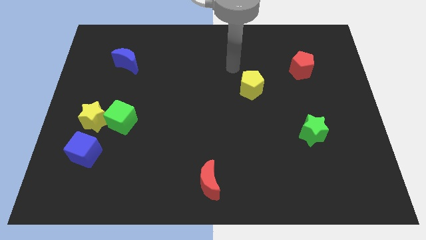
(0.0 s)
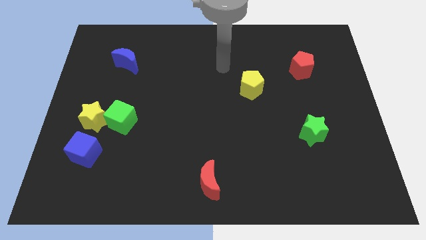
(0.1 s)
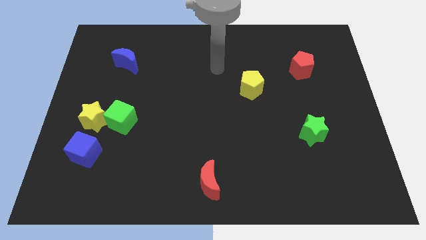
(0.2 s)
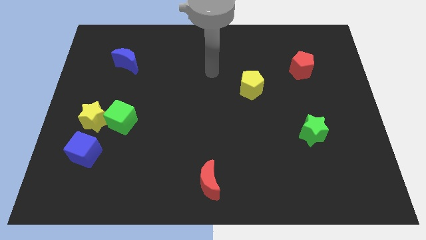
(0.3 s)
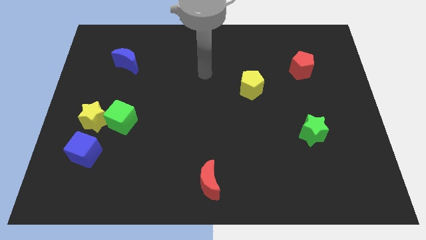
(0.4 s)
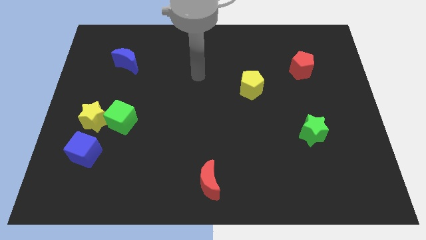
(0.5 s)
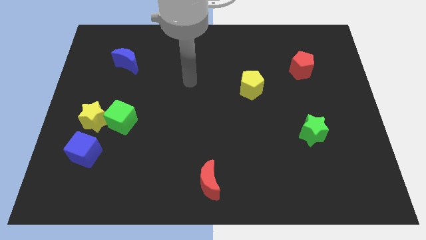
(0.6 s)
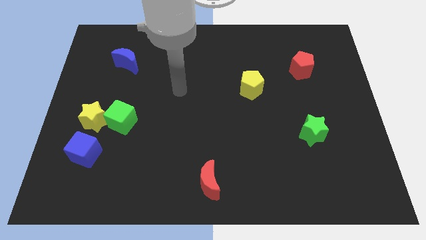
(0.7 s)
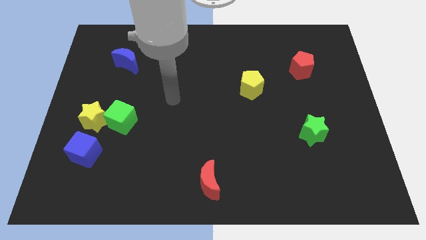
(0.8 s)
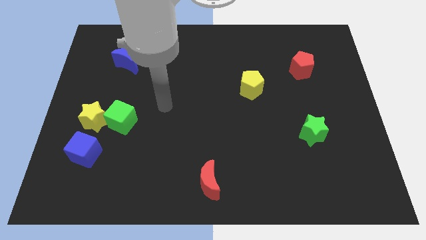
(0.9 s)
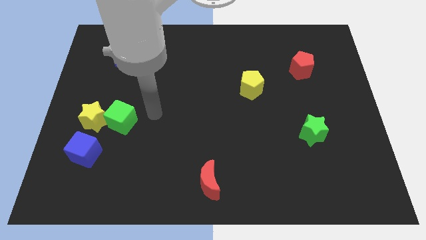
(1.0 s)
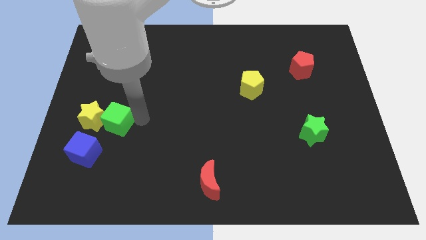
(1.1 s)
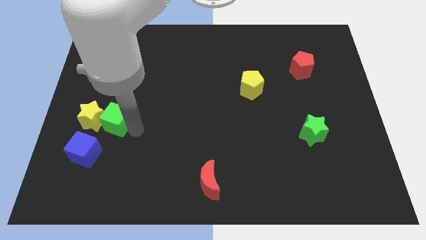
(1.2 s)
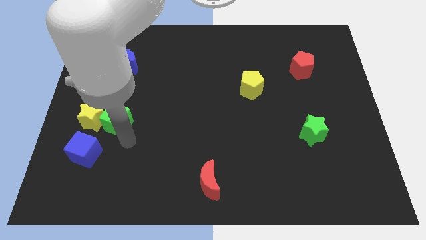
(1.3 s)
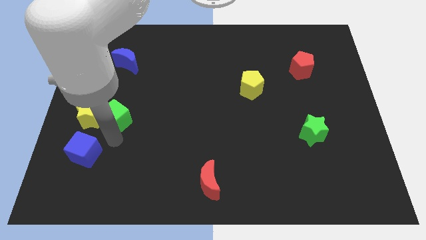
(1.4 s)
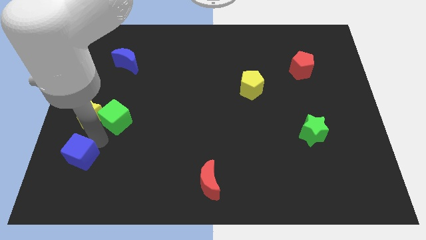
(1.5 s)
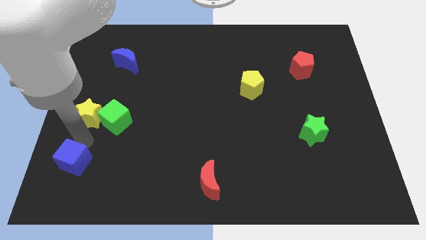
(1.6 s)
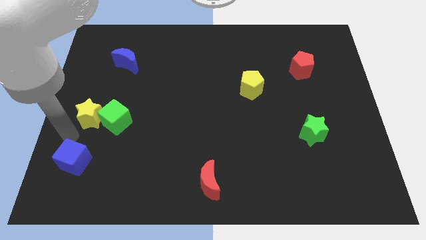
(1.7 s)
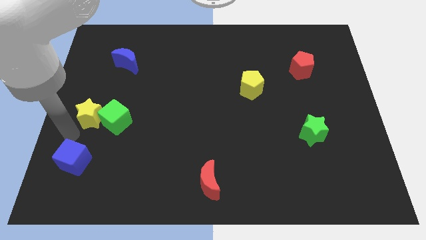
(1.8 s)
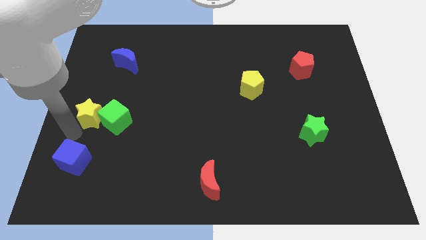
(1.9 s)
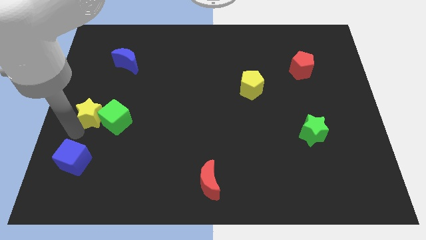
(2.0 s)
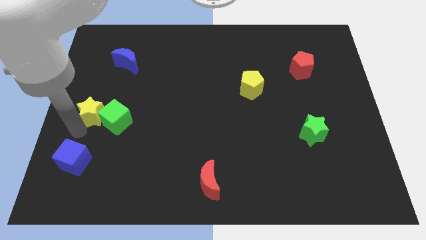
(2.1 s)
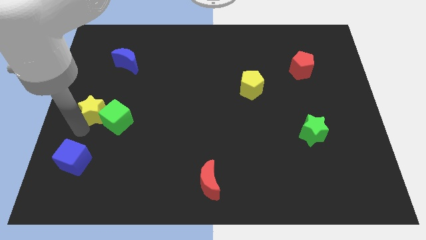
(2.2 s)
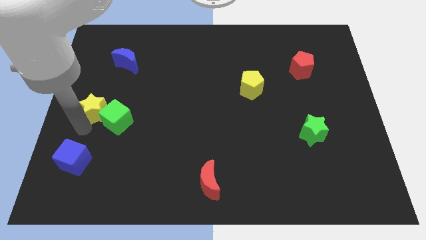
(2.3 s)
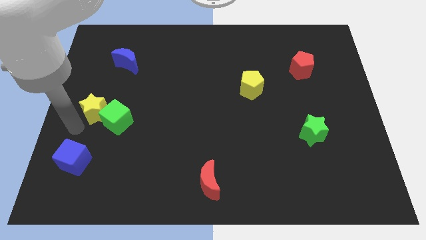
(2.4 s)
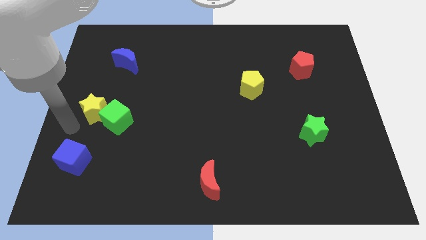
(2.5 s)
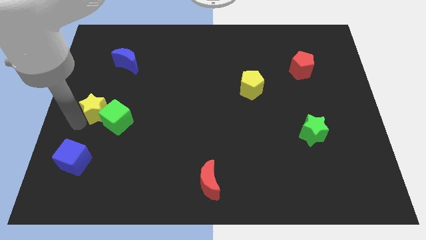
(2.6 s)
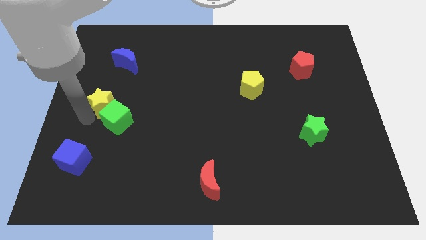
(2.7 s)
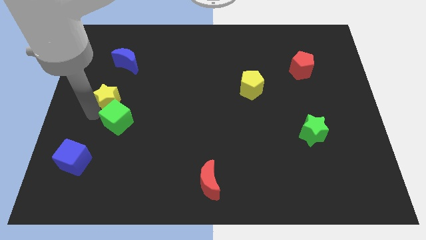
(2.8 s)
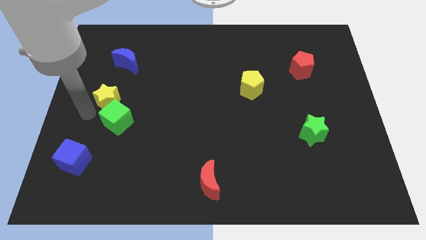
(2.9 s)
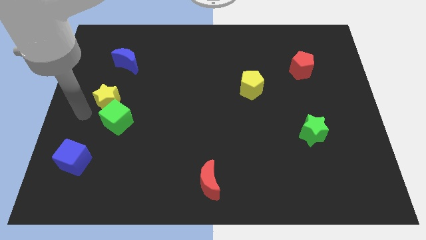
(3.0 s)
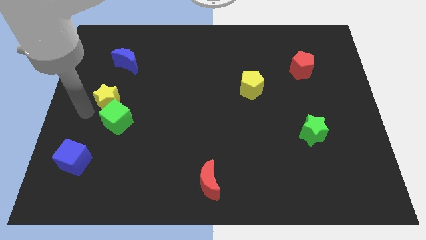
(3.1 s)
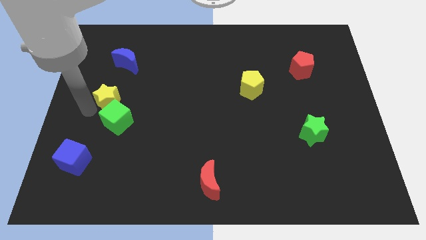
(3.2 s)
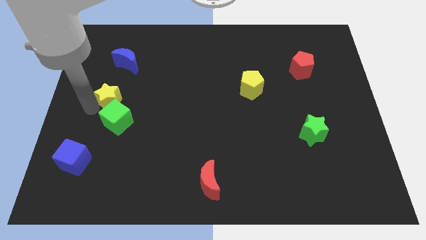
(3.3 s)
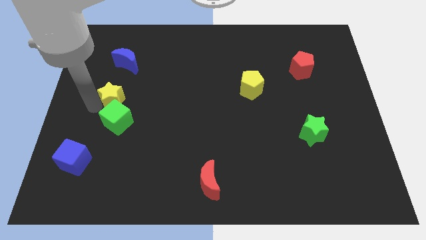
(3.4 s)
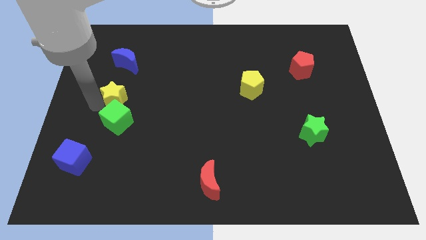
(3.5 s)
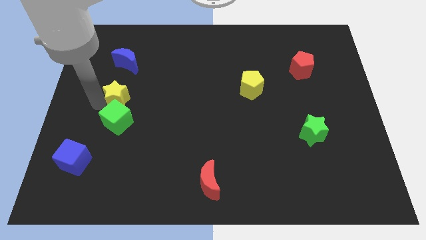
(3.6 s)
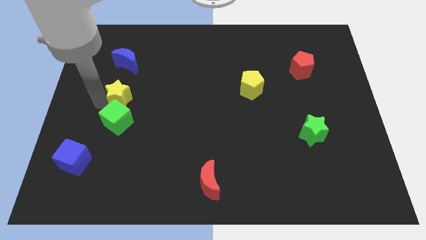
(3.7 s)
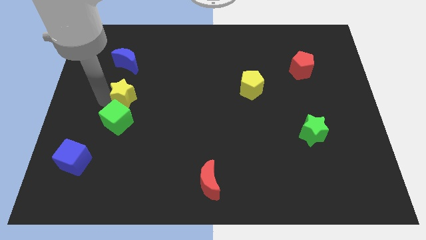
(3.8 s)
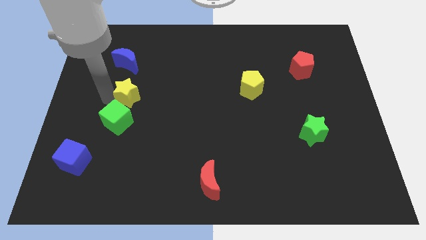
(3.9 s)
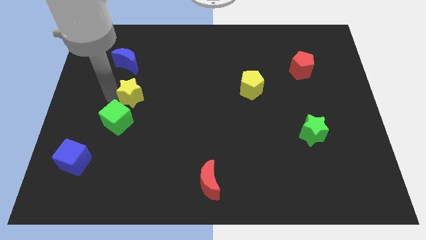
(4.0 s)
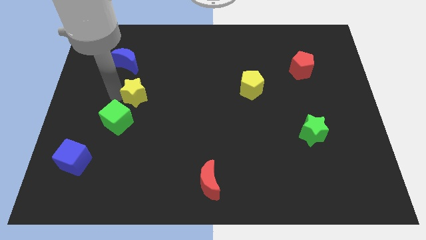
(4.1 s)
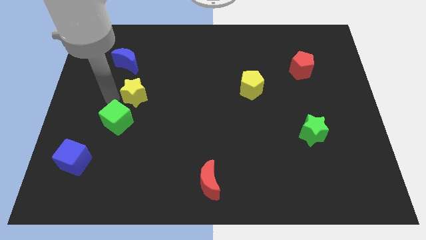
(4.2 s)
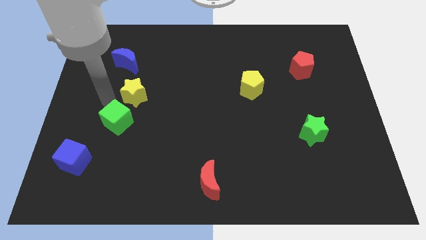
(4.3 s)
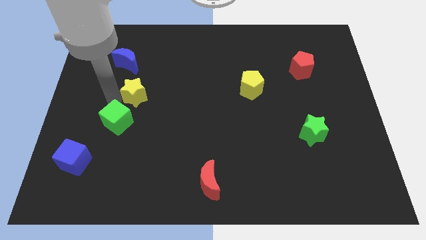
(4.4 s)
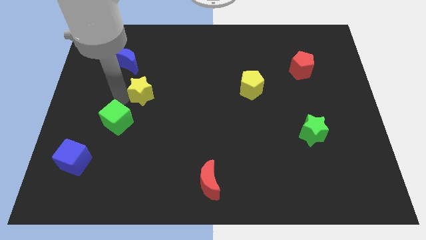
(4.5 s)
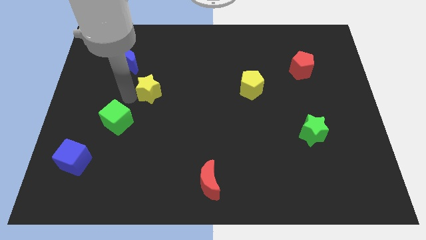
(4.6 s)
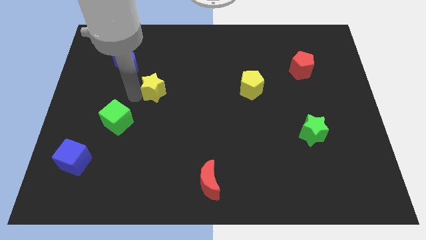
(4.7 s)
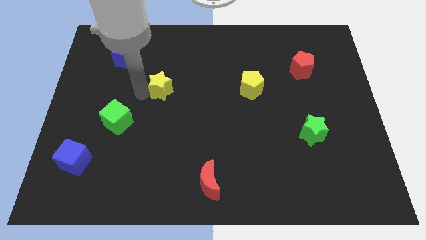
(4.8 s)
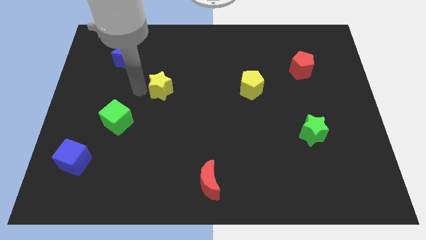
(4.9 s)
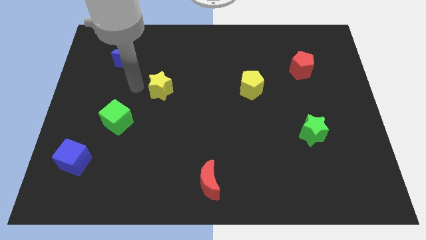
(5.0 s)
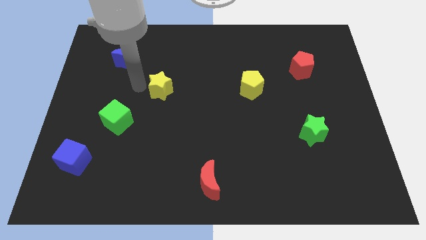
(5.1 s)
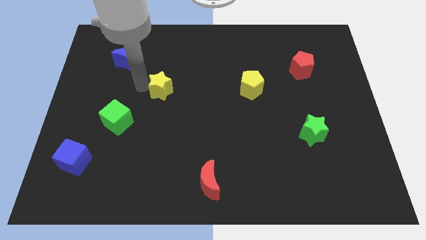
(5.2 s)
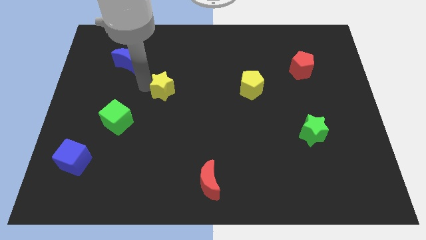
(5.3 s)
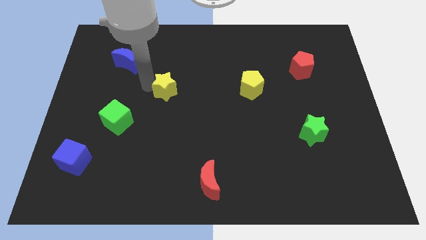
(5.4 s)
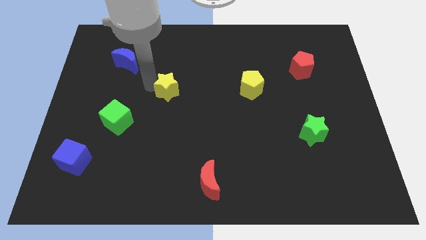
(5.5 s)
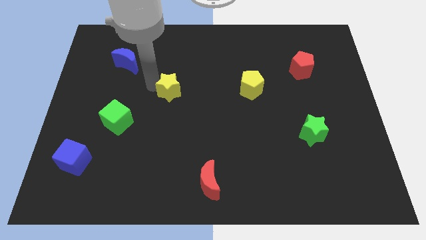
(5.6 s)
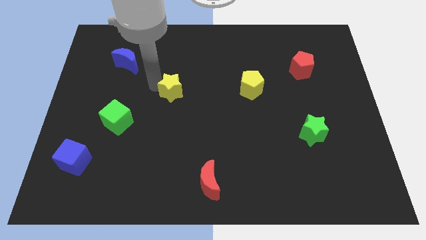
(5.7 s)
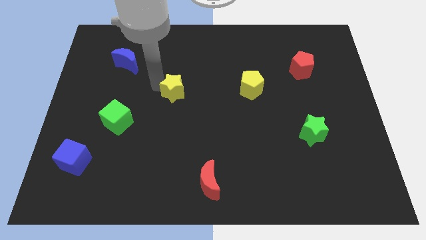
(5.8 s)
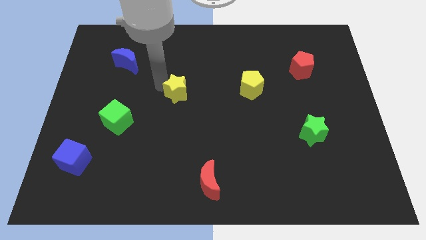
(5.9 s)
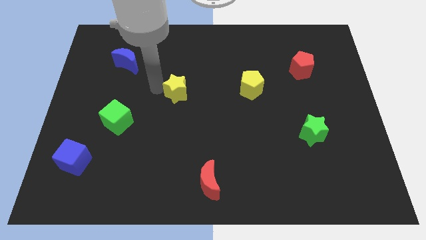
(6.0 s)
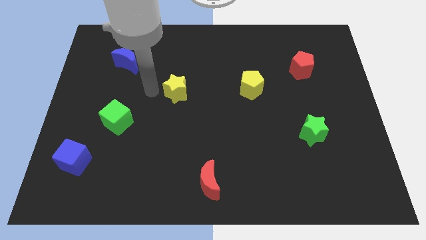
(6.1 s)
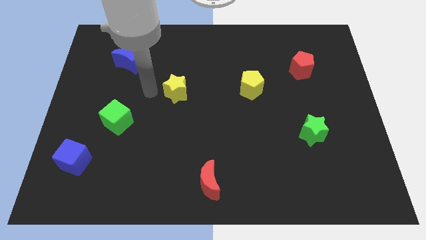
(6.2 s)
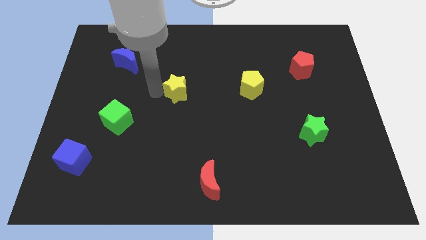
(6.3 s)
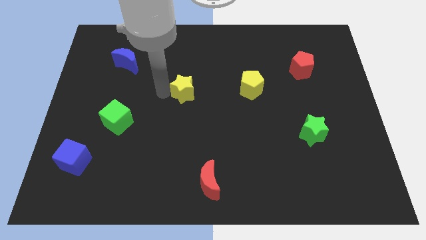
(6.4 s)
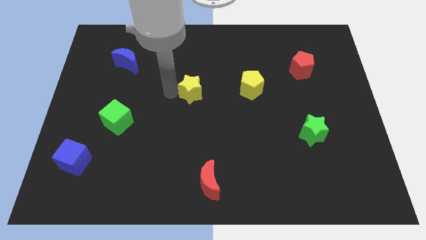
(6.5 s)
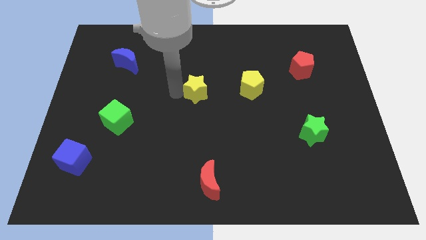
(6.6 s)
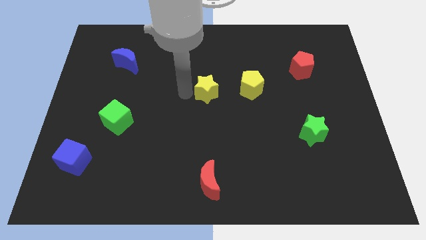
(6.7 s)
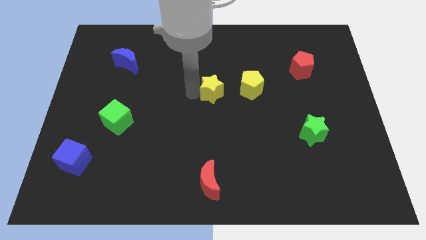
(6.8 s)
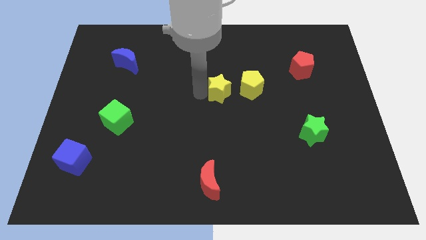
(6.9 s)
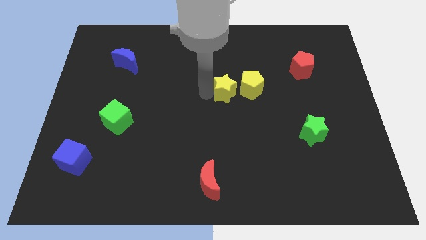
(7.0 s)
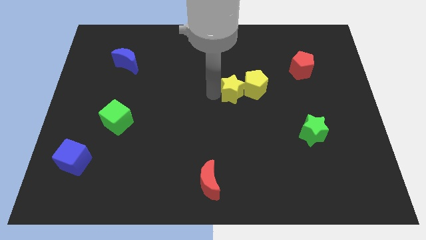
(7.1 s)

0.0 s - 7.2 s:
put the yellow star next to the yellow pentagon

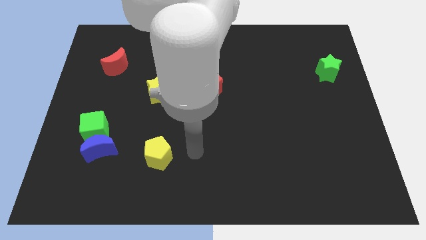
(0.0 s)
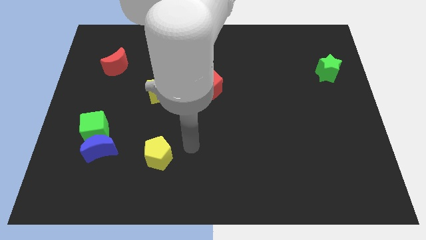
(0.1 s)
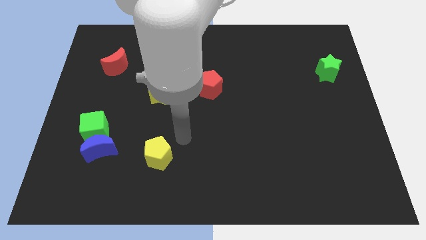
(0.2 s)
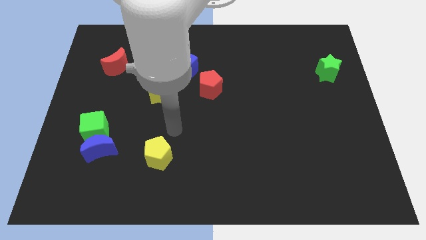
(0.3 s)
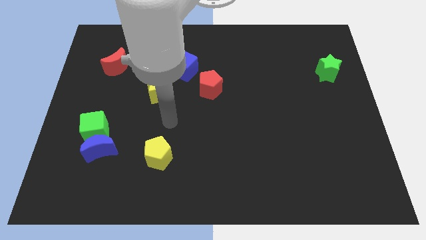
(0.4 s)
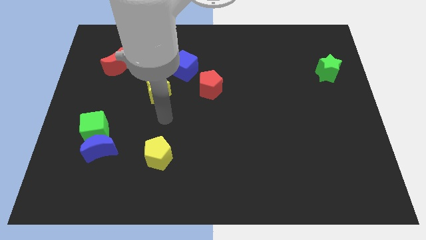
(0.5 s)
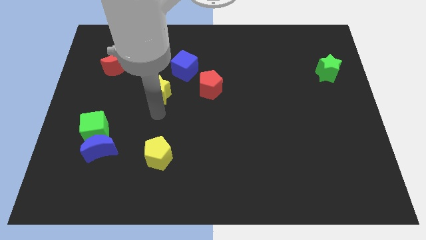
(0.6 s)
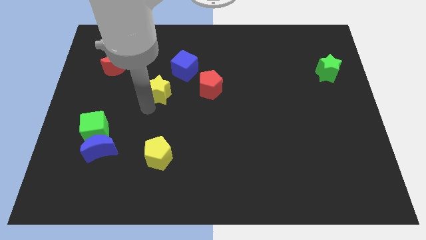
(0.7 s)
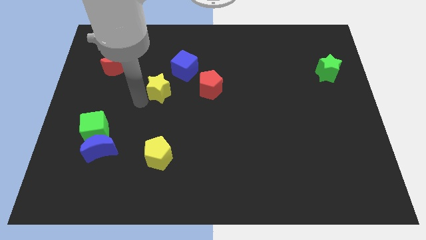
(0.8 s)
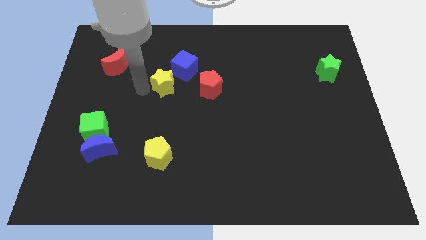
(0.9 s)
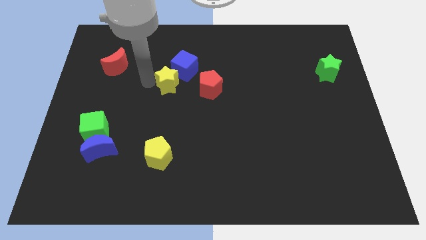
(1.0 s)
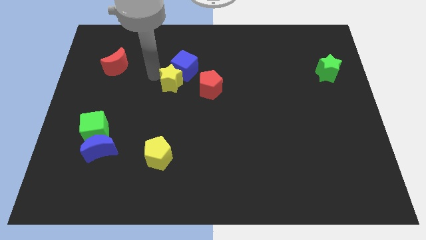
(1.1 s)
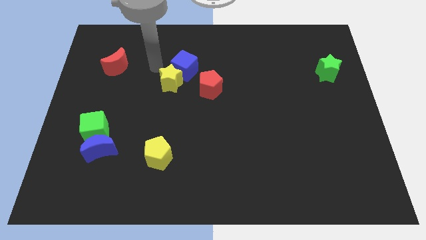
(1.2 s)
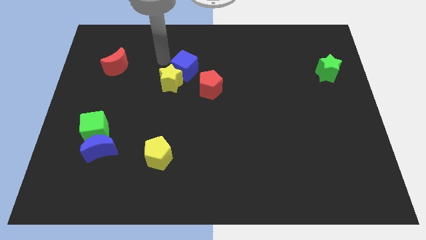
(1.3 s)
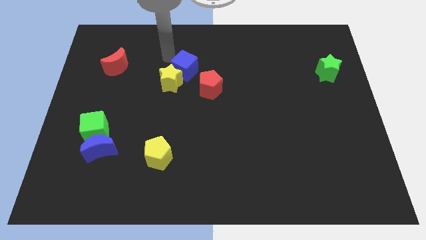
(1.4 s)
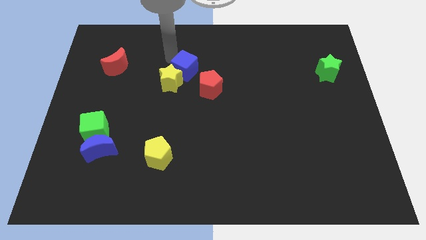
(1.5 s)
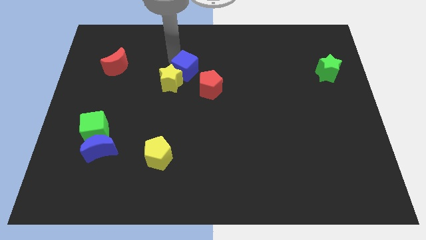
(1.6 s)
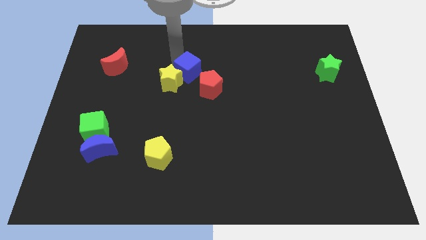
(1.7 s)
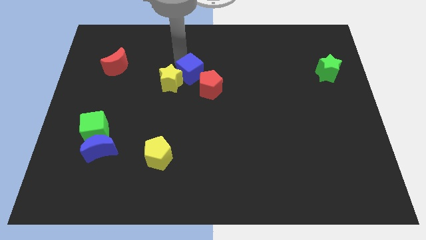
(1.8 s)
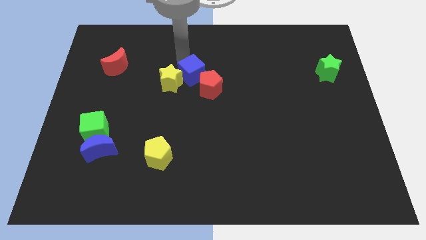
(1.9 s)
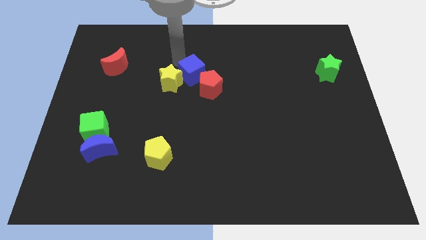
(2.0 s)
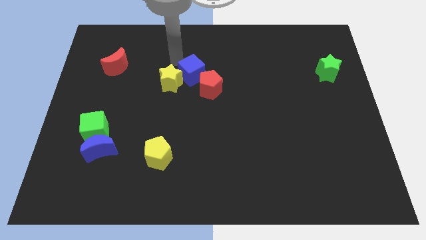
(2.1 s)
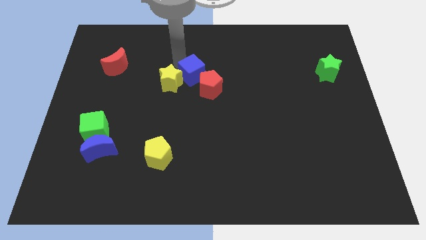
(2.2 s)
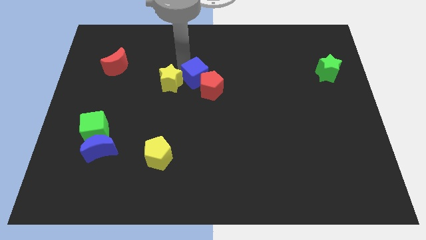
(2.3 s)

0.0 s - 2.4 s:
move the blue cube close to the red pentagon
